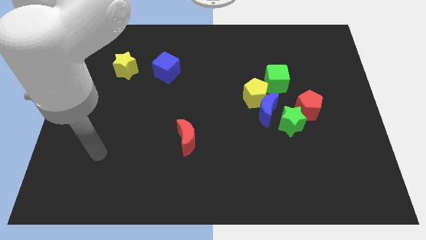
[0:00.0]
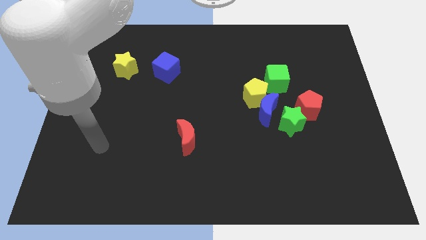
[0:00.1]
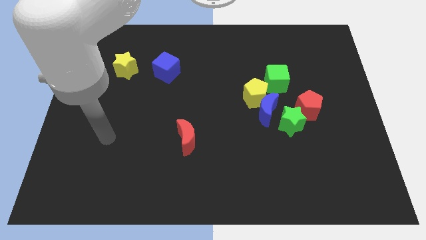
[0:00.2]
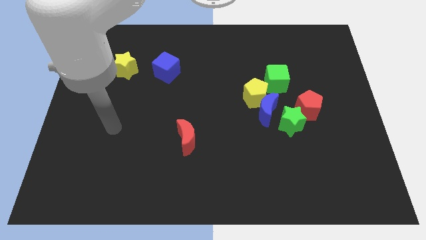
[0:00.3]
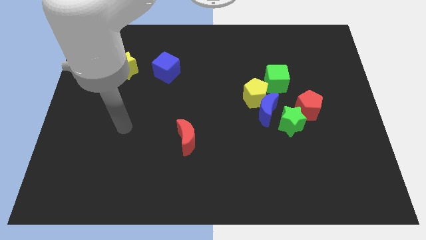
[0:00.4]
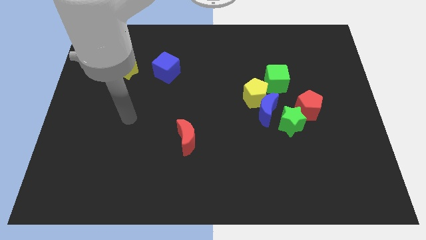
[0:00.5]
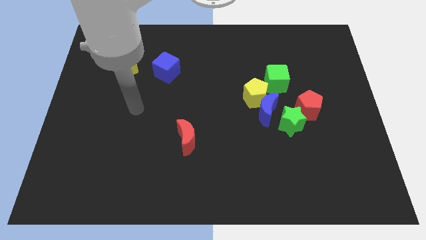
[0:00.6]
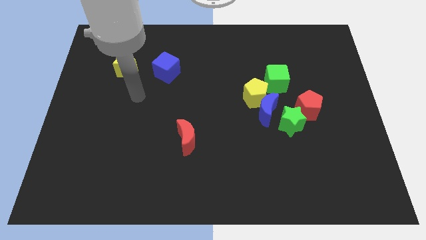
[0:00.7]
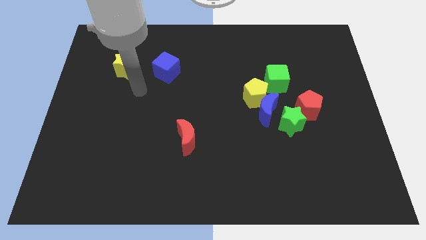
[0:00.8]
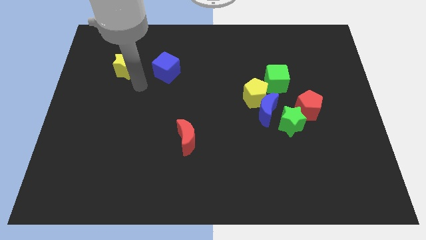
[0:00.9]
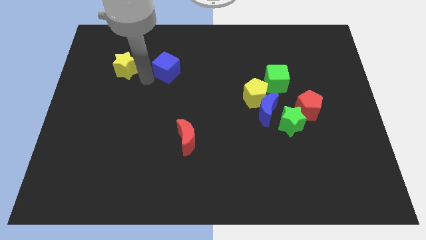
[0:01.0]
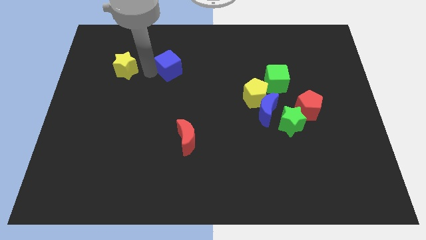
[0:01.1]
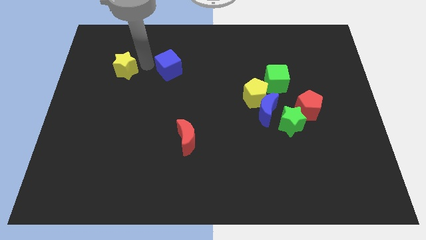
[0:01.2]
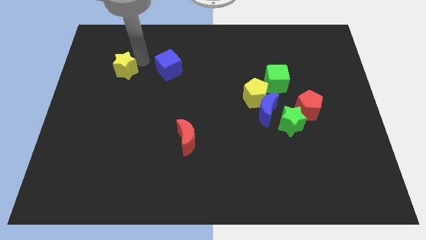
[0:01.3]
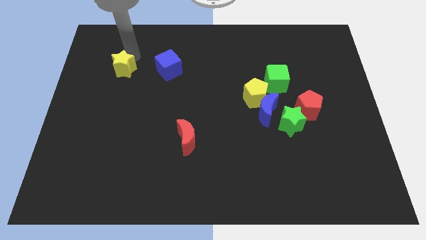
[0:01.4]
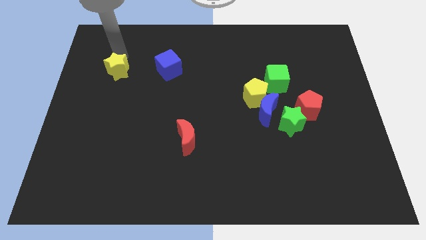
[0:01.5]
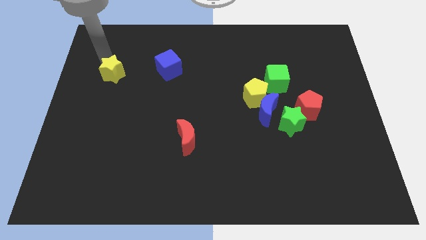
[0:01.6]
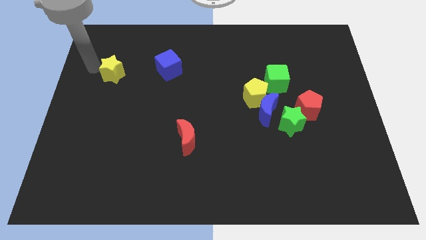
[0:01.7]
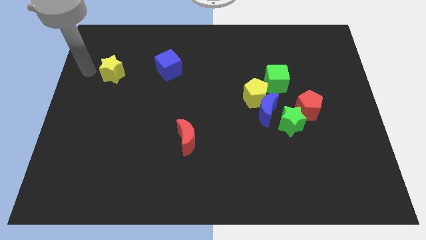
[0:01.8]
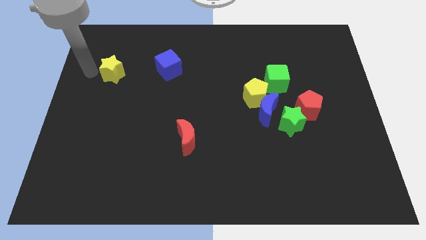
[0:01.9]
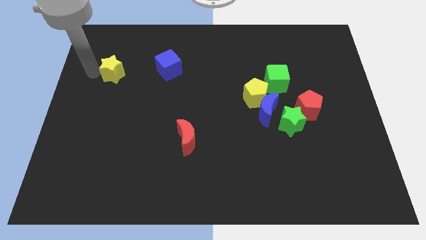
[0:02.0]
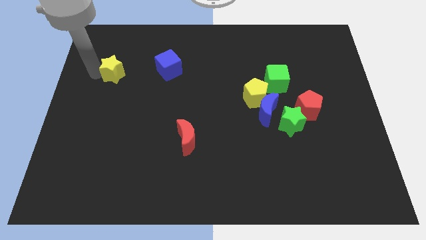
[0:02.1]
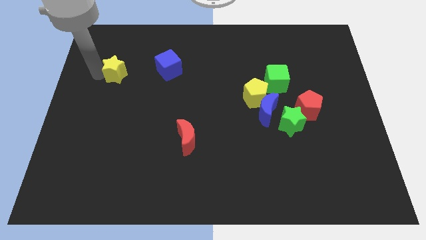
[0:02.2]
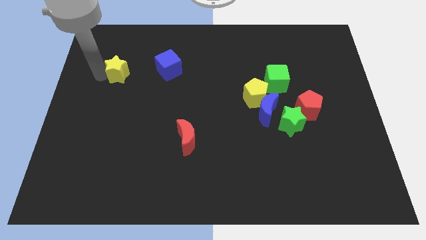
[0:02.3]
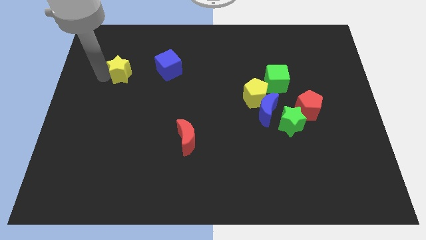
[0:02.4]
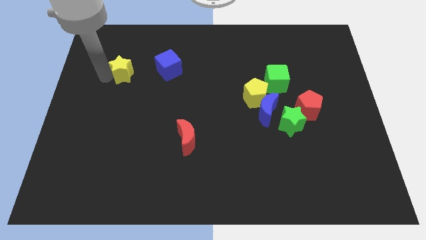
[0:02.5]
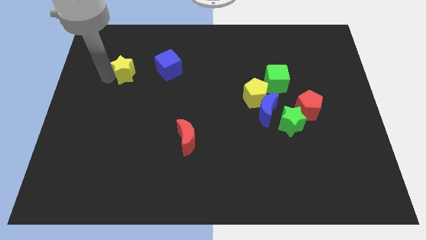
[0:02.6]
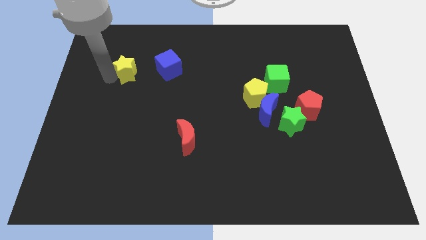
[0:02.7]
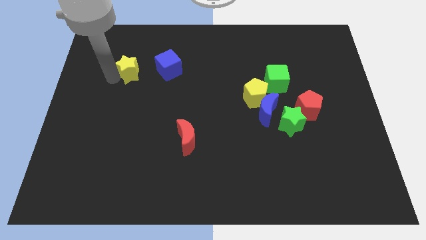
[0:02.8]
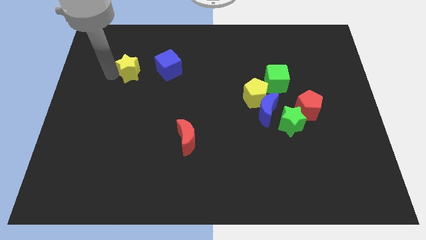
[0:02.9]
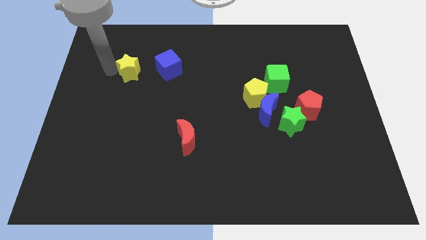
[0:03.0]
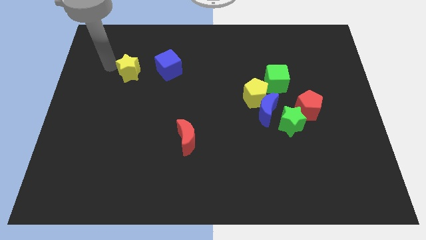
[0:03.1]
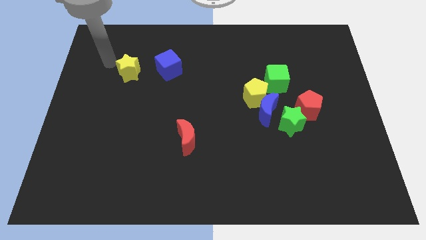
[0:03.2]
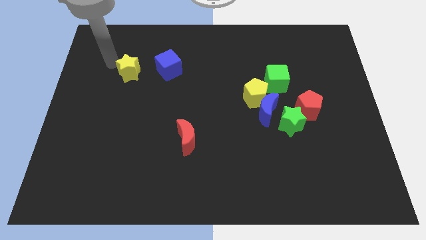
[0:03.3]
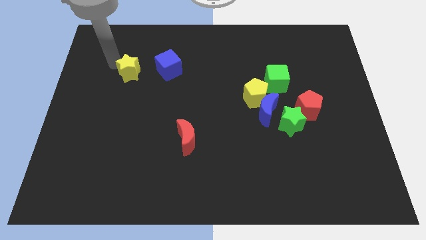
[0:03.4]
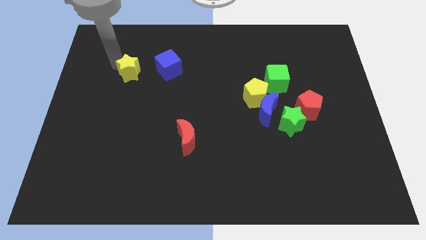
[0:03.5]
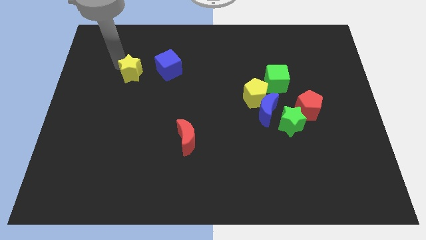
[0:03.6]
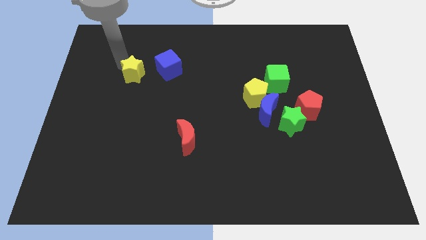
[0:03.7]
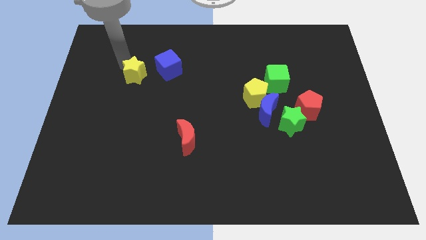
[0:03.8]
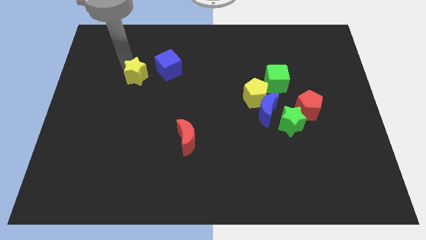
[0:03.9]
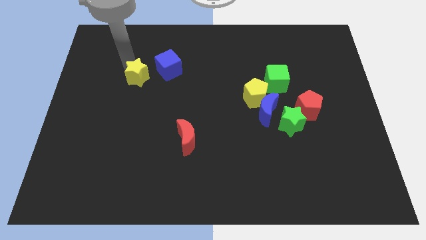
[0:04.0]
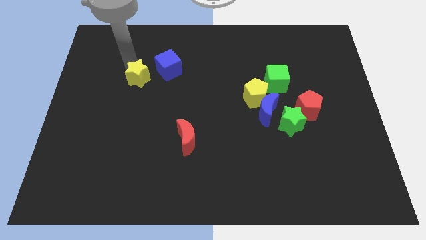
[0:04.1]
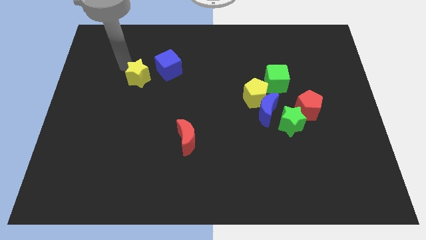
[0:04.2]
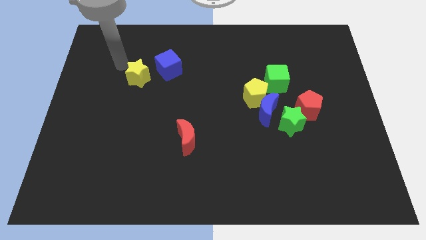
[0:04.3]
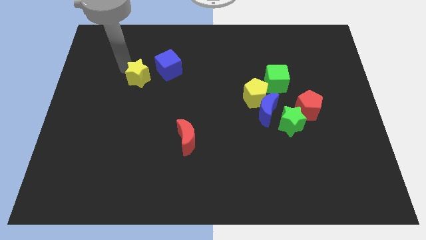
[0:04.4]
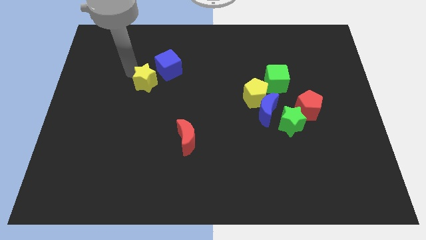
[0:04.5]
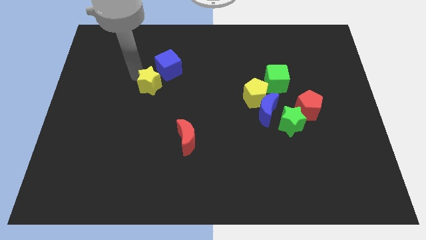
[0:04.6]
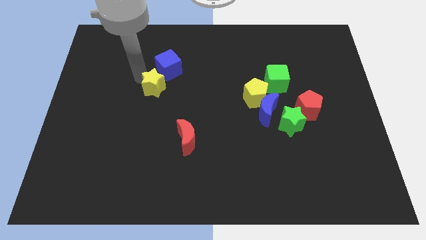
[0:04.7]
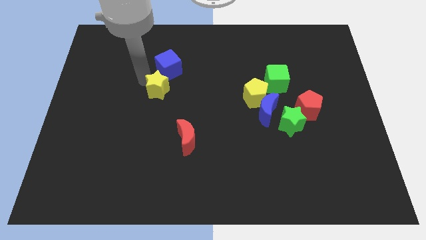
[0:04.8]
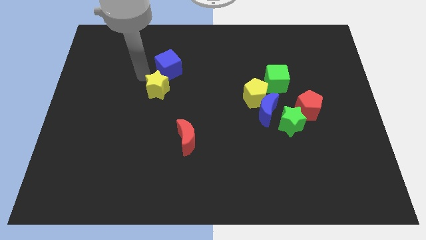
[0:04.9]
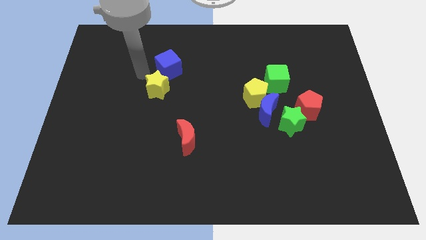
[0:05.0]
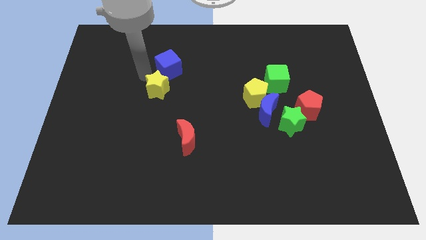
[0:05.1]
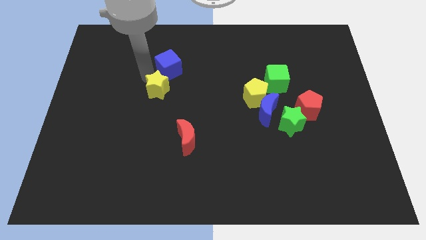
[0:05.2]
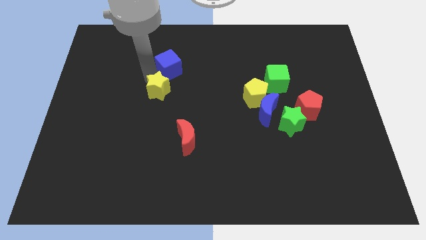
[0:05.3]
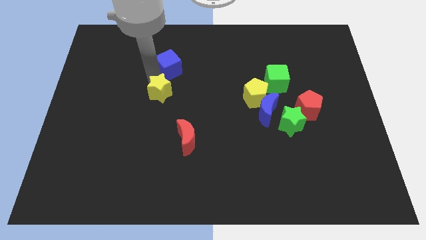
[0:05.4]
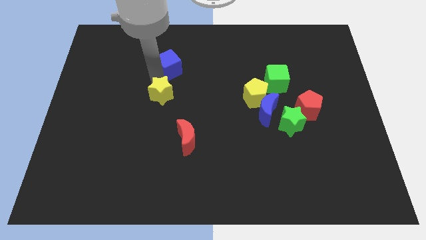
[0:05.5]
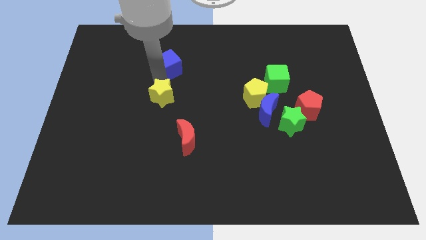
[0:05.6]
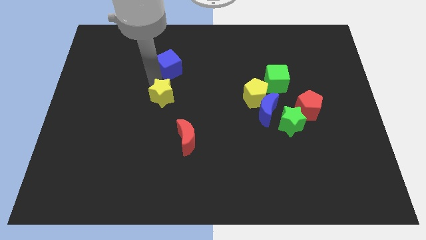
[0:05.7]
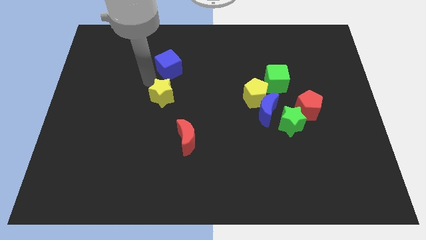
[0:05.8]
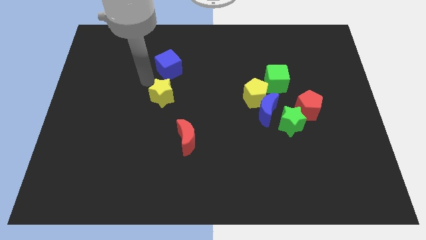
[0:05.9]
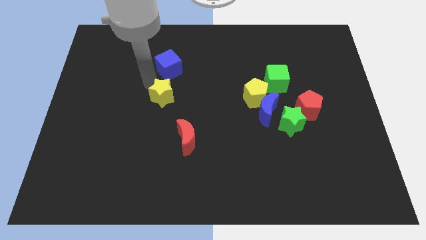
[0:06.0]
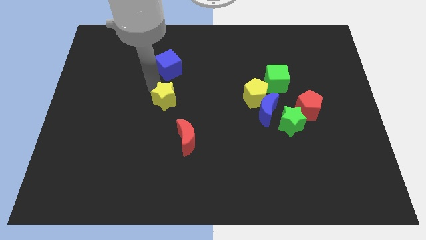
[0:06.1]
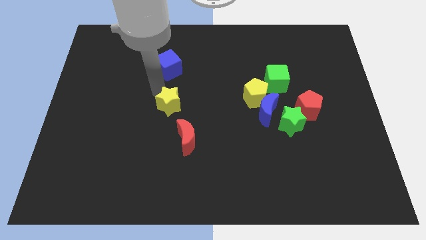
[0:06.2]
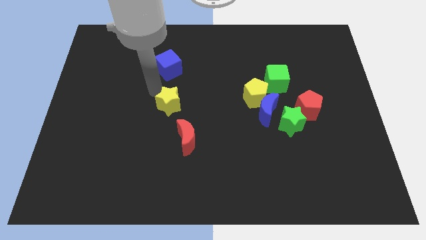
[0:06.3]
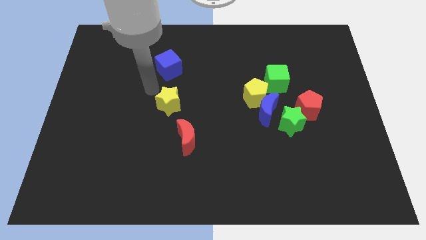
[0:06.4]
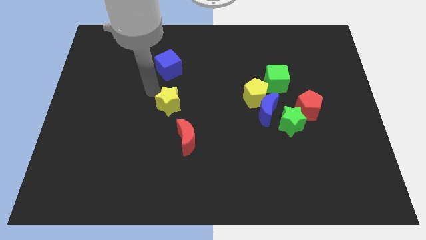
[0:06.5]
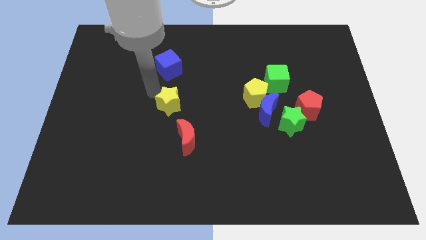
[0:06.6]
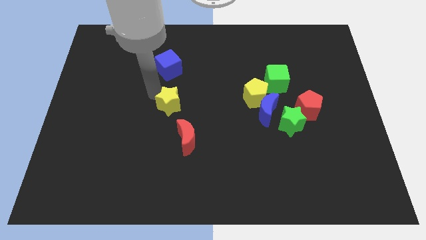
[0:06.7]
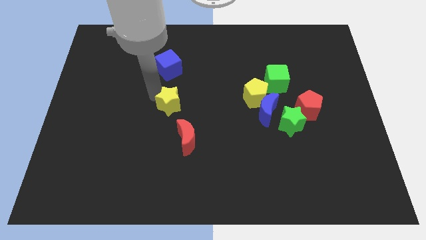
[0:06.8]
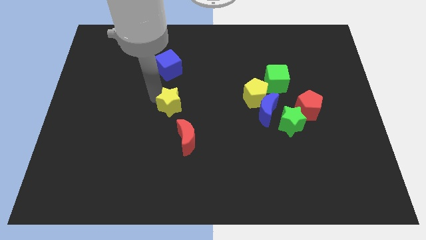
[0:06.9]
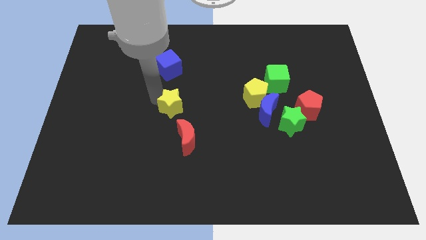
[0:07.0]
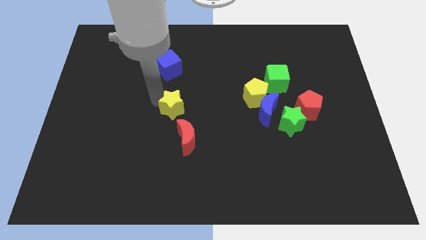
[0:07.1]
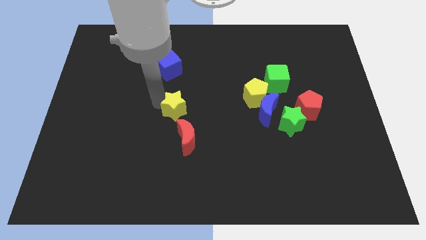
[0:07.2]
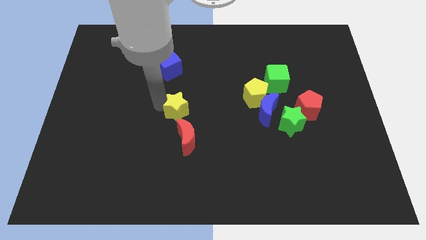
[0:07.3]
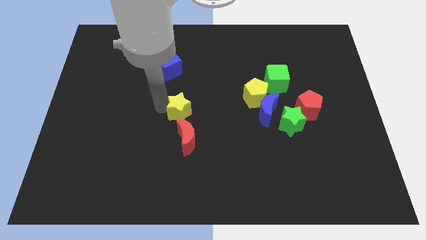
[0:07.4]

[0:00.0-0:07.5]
slide the yellow star diagonally down and to the right

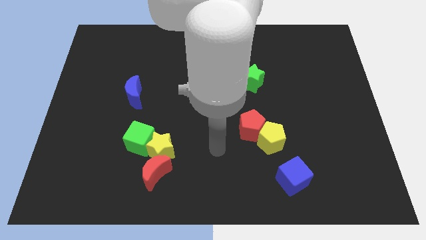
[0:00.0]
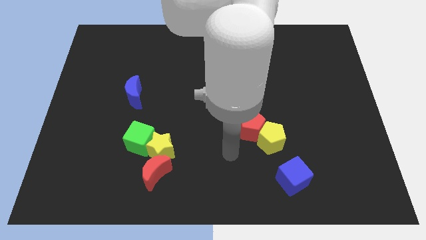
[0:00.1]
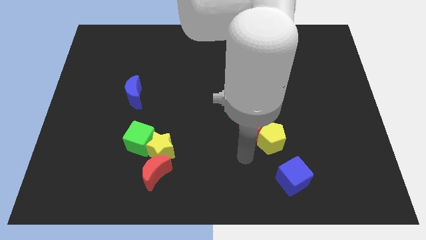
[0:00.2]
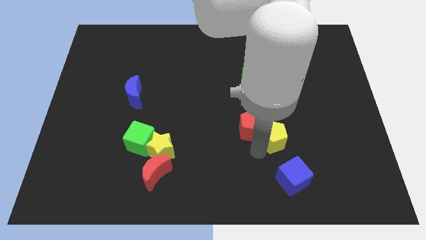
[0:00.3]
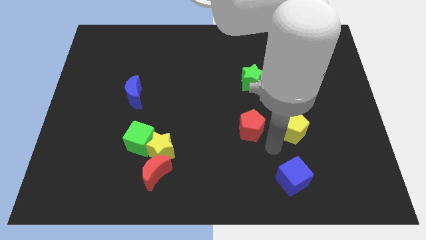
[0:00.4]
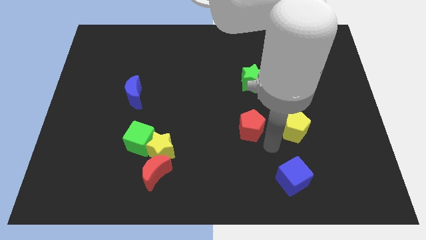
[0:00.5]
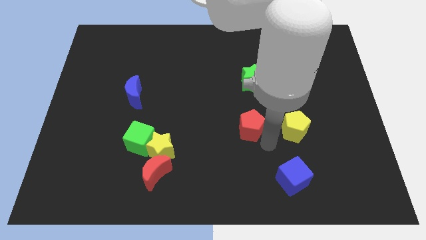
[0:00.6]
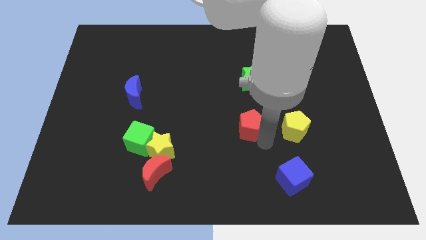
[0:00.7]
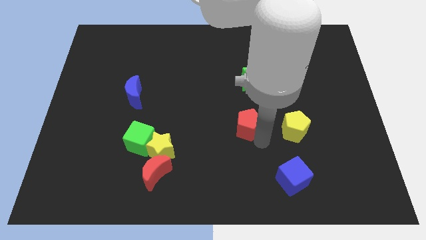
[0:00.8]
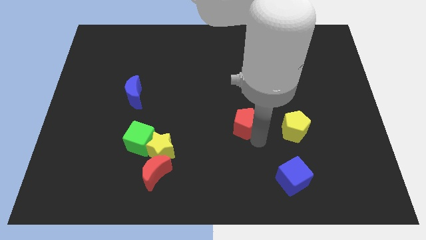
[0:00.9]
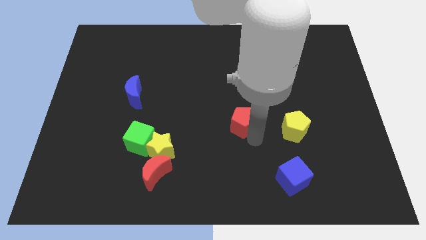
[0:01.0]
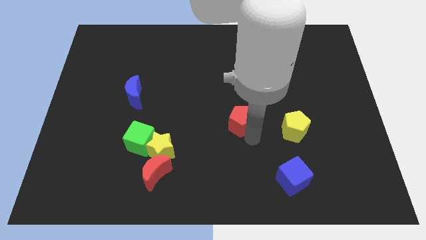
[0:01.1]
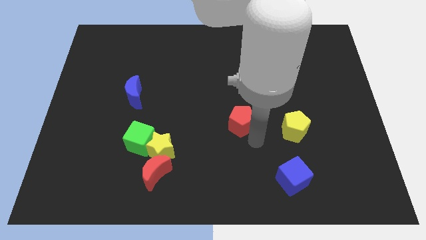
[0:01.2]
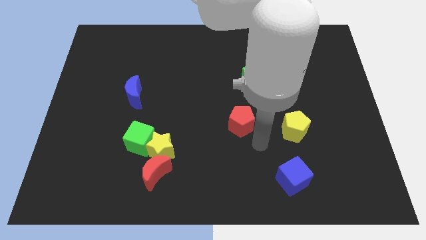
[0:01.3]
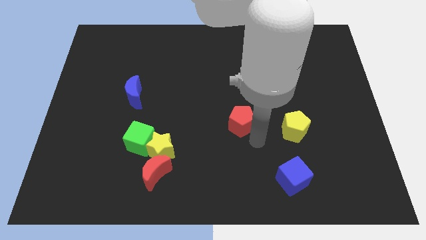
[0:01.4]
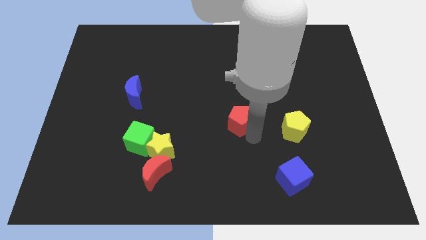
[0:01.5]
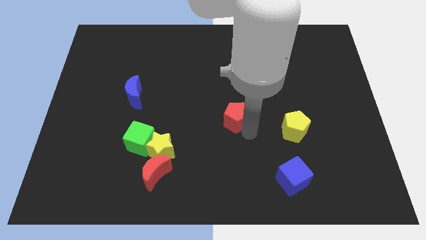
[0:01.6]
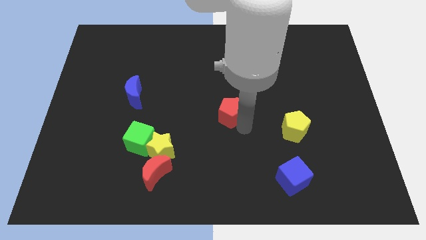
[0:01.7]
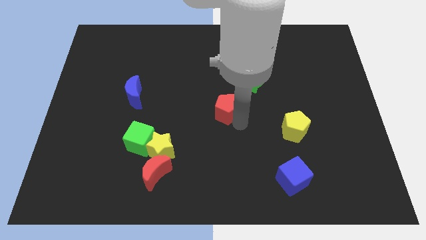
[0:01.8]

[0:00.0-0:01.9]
push the red pentagon up and then to the left slightly
